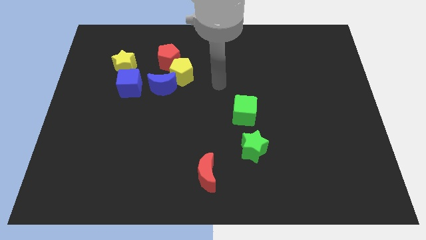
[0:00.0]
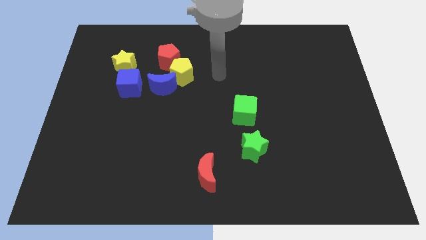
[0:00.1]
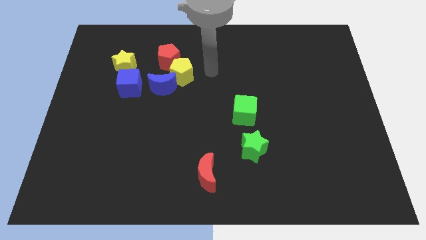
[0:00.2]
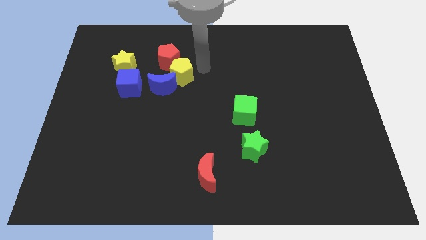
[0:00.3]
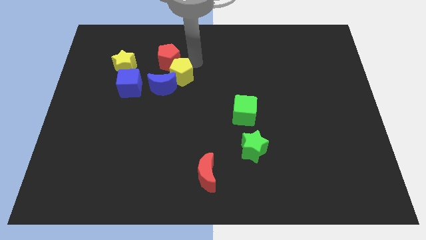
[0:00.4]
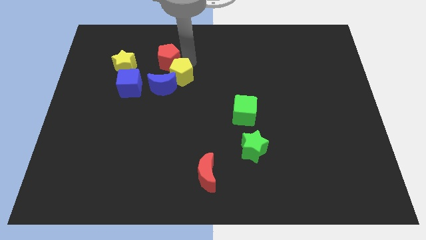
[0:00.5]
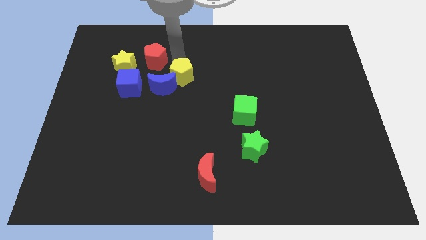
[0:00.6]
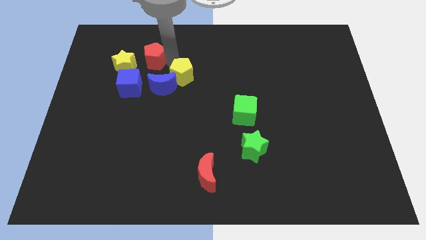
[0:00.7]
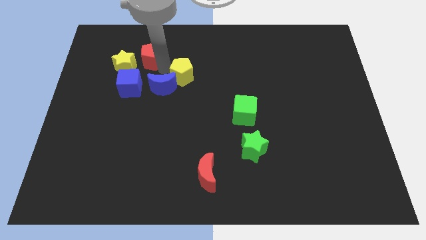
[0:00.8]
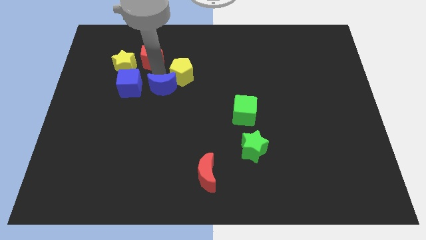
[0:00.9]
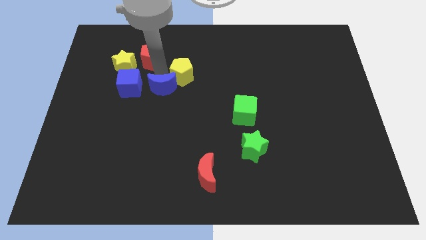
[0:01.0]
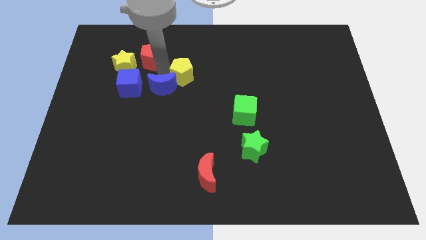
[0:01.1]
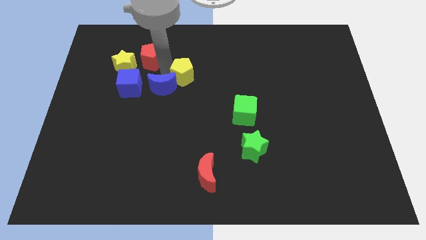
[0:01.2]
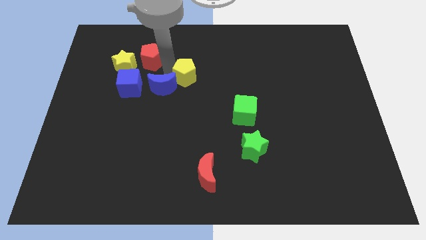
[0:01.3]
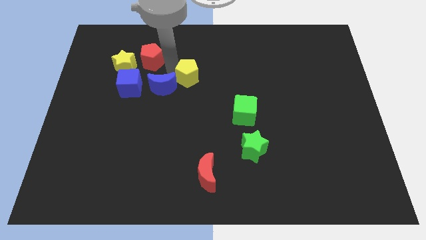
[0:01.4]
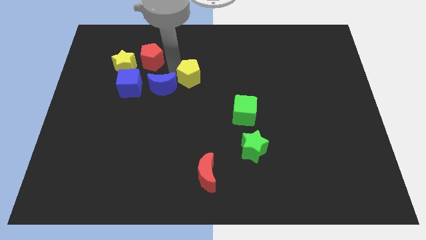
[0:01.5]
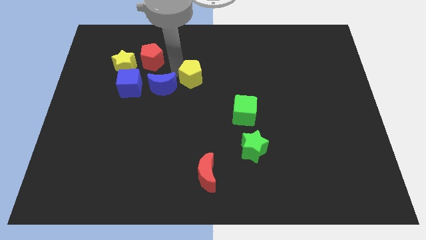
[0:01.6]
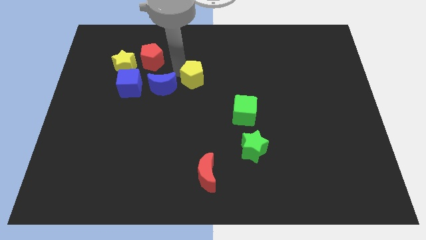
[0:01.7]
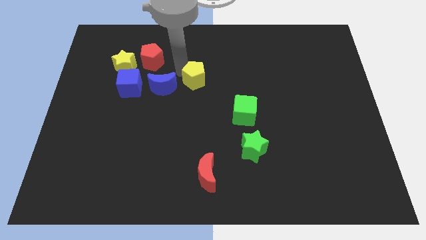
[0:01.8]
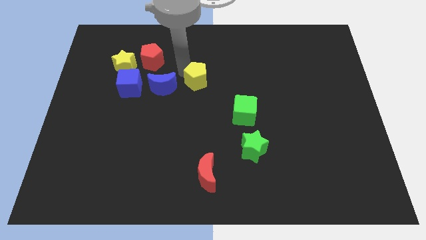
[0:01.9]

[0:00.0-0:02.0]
move the yellow pentagon away from the blue moon and red pentagon

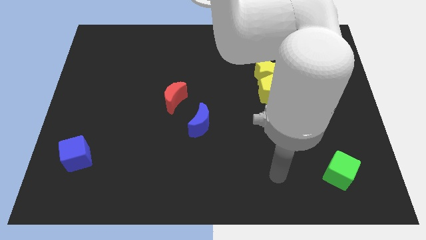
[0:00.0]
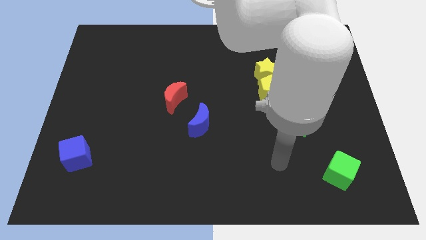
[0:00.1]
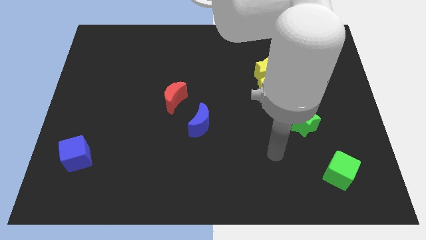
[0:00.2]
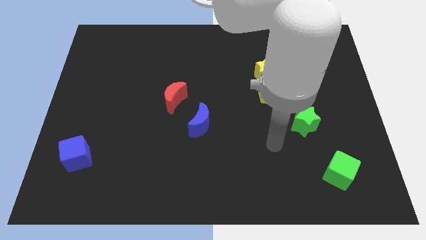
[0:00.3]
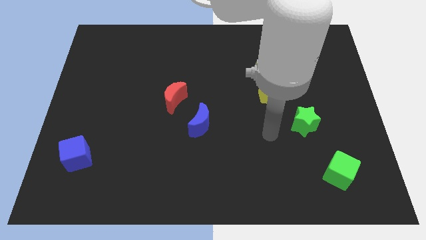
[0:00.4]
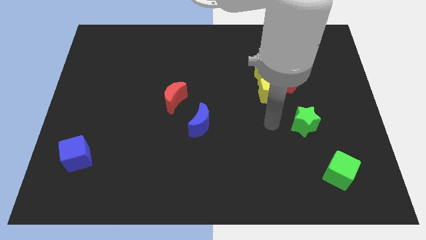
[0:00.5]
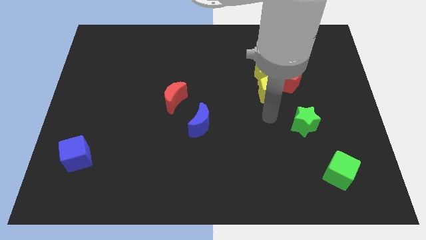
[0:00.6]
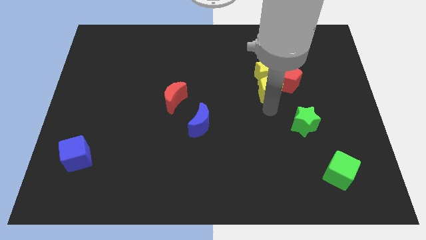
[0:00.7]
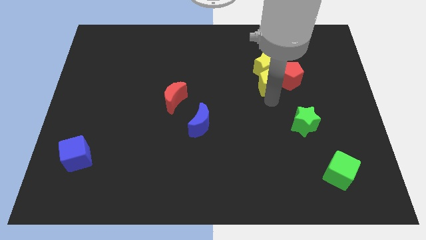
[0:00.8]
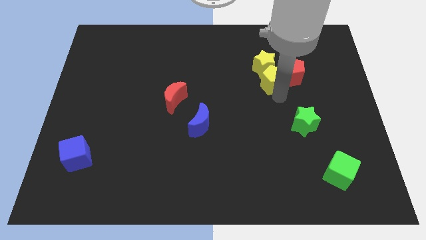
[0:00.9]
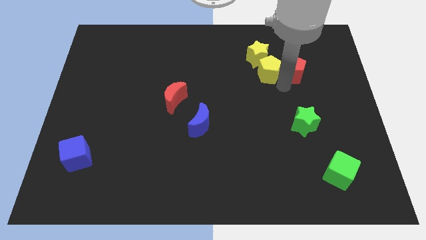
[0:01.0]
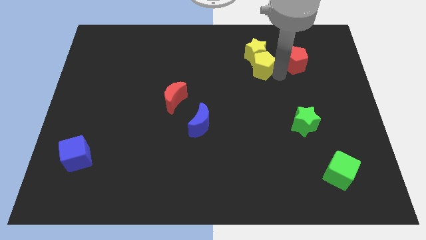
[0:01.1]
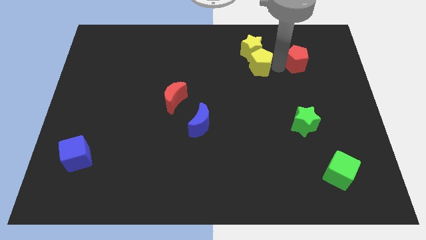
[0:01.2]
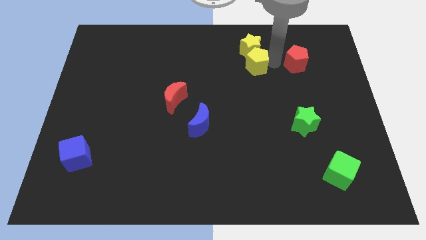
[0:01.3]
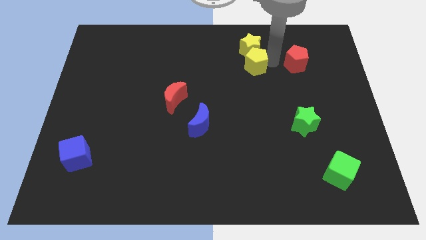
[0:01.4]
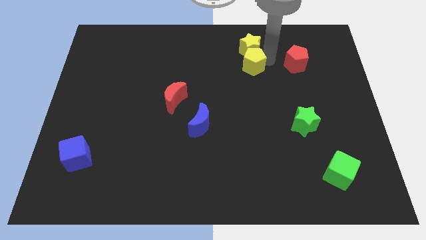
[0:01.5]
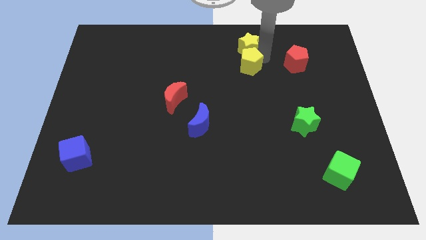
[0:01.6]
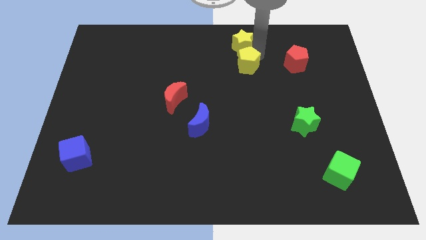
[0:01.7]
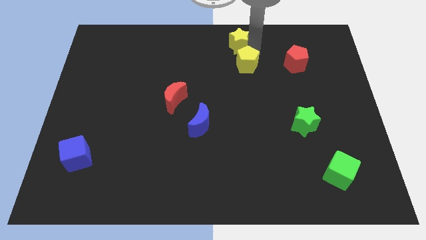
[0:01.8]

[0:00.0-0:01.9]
pull the yellow star apart from the yellow pentagon and red pentagon

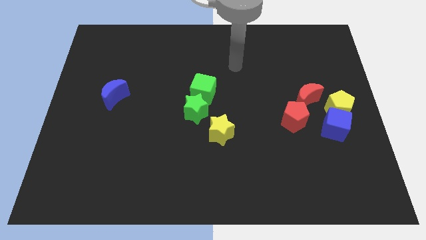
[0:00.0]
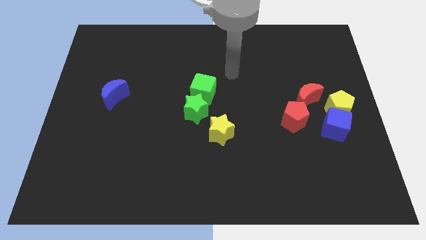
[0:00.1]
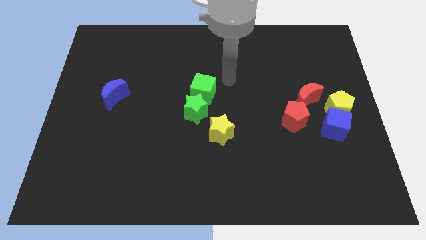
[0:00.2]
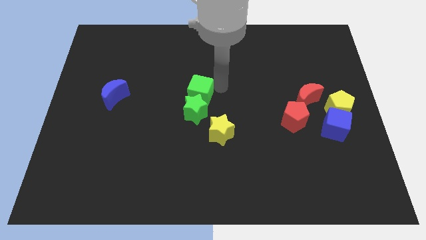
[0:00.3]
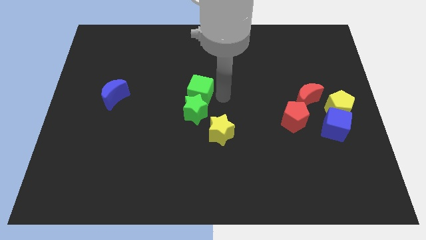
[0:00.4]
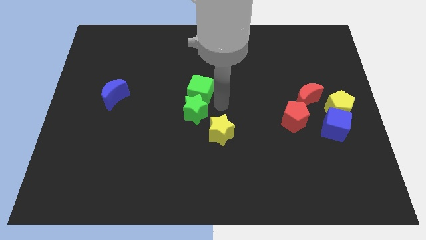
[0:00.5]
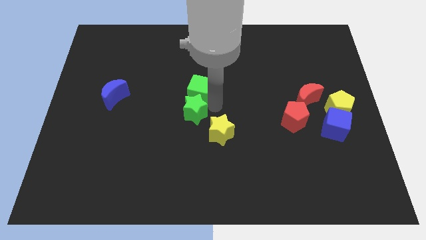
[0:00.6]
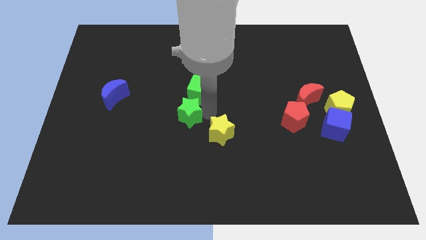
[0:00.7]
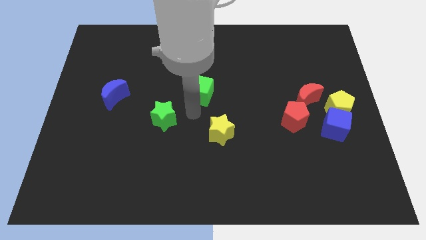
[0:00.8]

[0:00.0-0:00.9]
separate the green cube from the green star

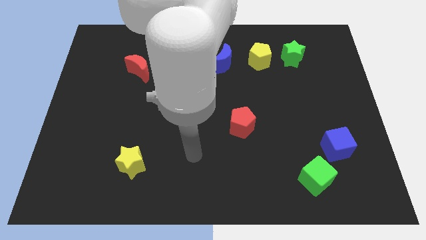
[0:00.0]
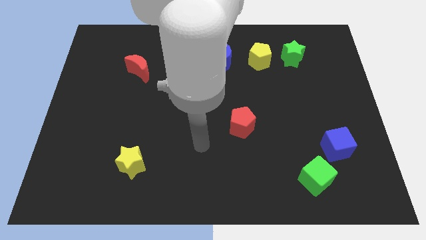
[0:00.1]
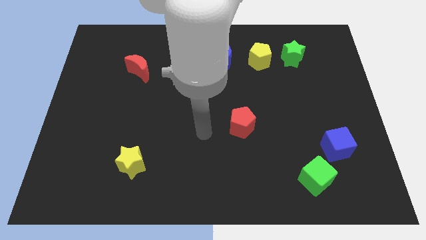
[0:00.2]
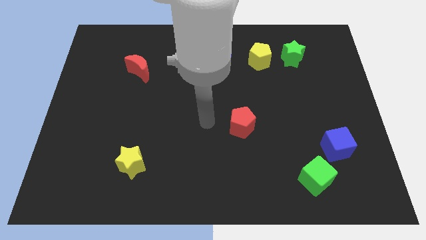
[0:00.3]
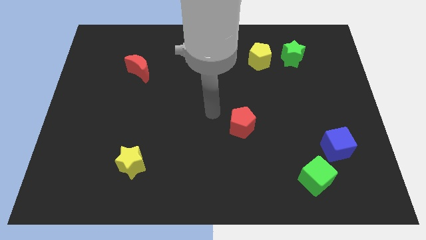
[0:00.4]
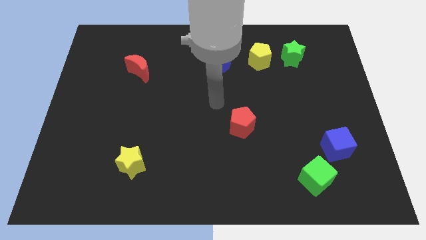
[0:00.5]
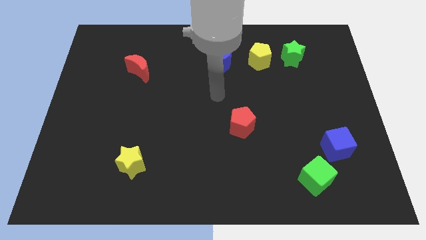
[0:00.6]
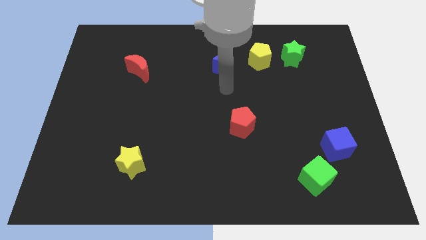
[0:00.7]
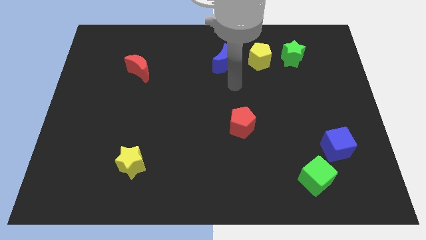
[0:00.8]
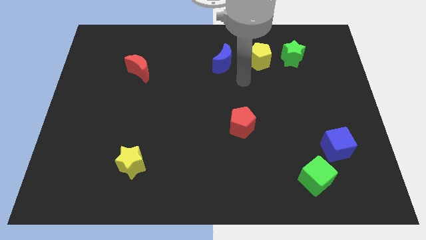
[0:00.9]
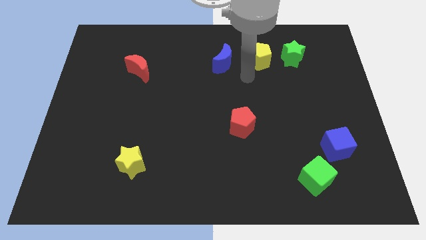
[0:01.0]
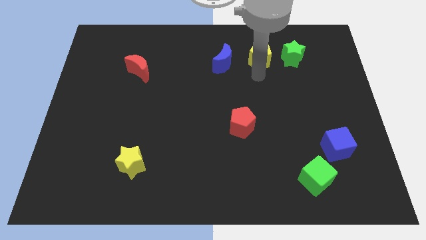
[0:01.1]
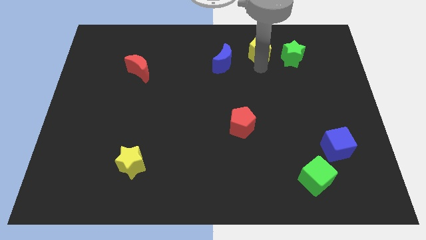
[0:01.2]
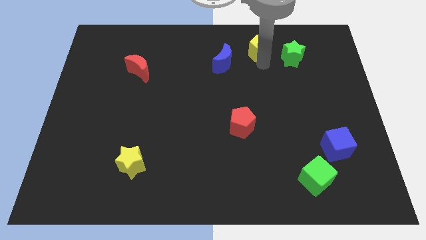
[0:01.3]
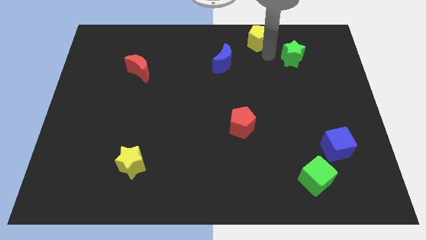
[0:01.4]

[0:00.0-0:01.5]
pull the green star apart from the yellow pentagon

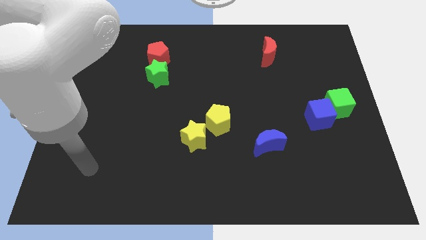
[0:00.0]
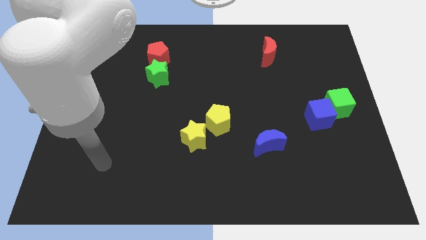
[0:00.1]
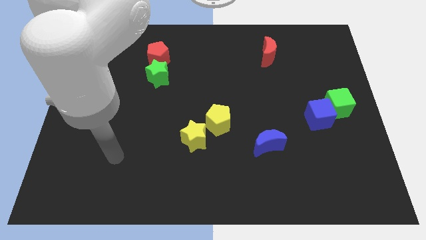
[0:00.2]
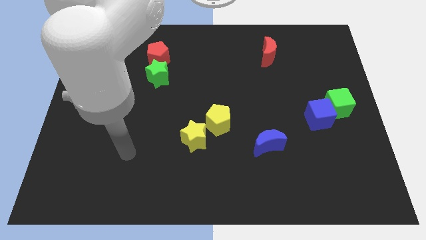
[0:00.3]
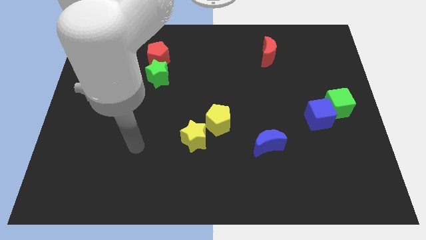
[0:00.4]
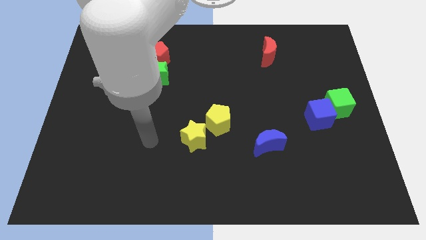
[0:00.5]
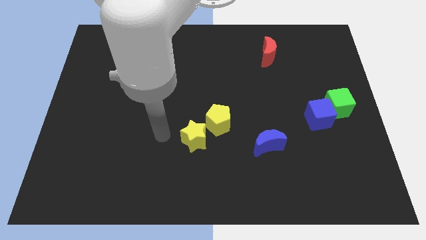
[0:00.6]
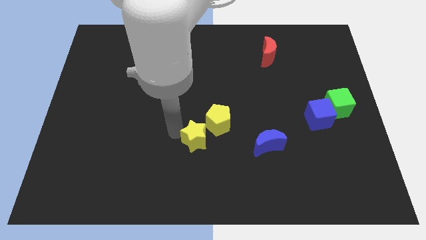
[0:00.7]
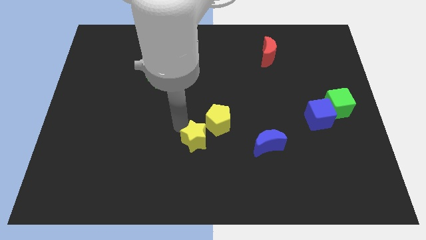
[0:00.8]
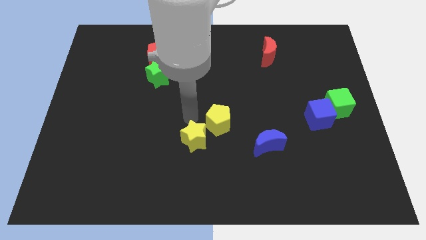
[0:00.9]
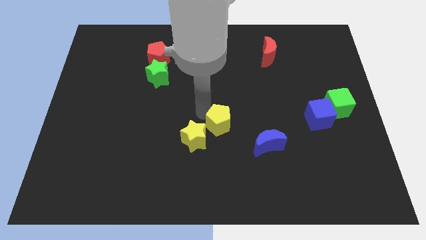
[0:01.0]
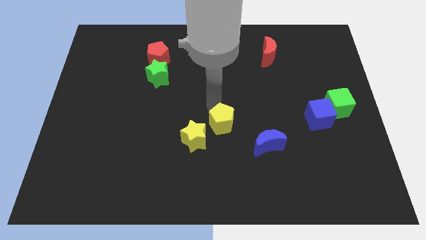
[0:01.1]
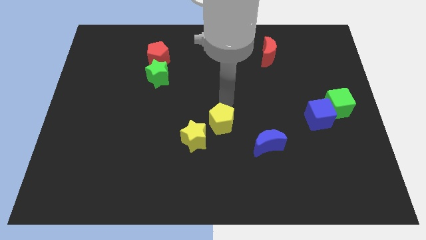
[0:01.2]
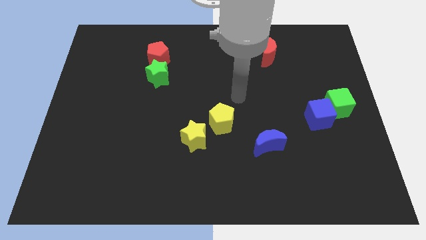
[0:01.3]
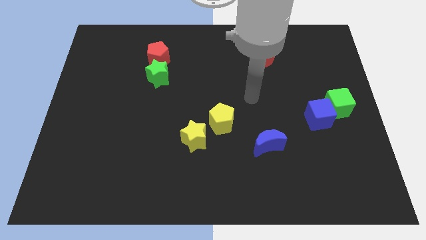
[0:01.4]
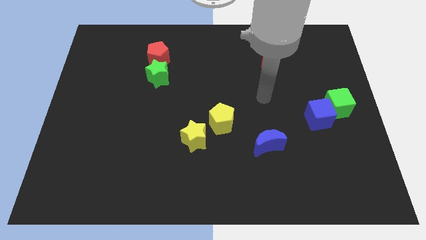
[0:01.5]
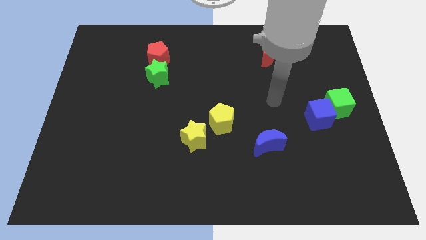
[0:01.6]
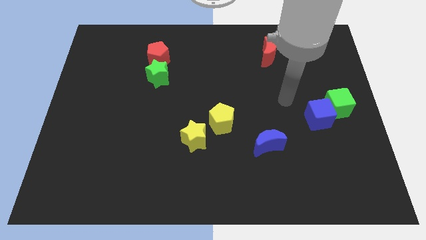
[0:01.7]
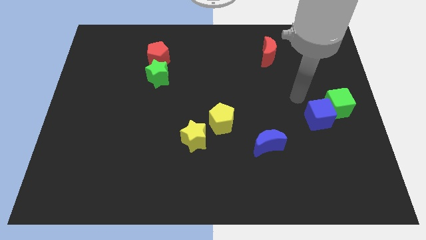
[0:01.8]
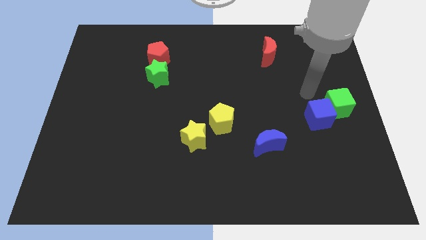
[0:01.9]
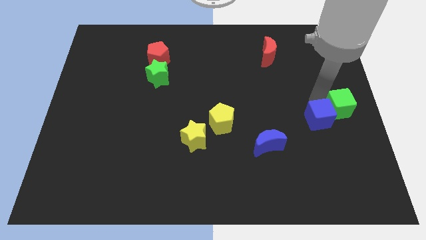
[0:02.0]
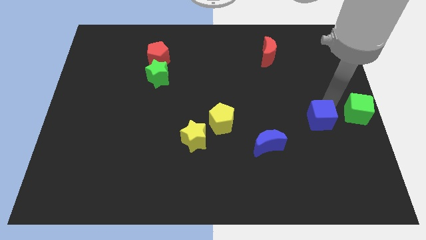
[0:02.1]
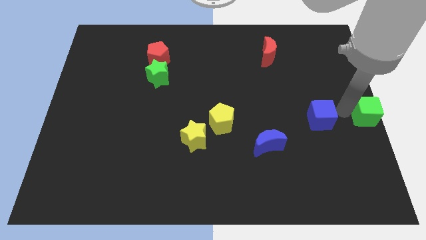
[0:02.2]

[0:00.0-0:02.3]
separate the blue cube from the green cube

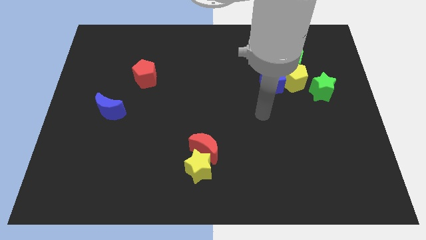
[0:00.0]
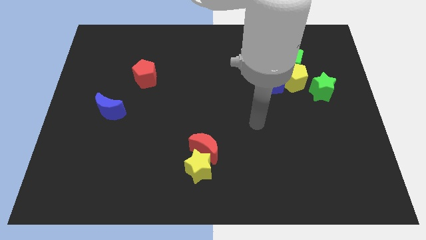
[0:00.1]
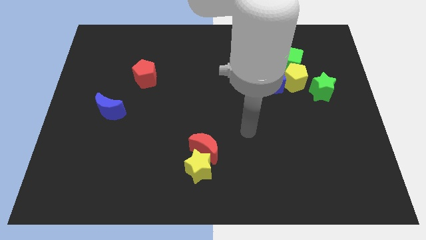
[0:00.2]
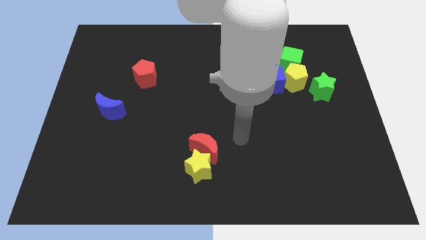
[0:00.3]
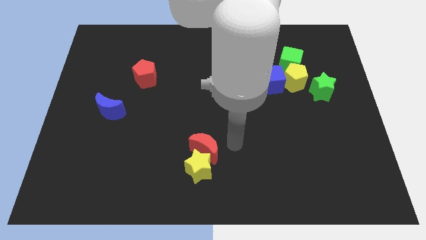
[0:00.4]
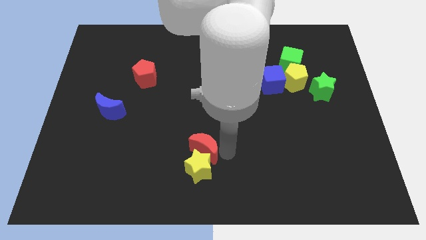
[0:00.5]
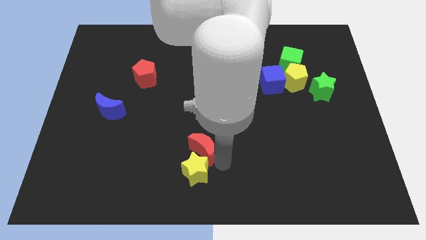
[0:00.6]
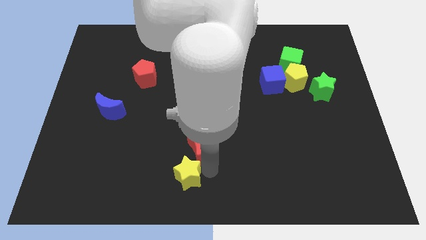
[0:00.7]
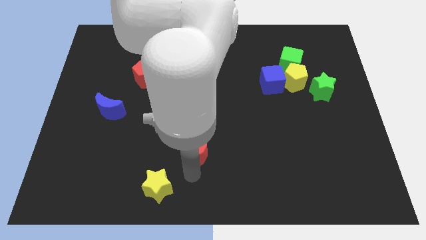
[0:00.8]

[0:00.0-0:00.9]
separate the red moon from the yellow star
